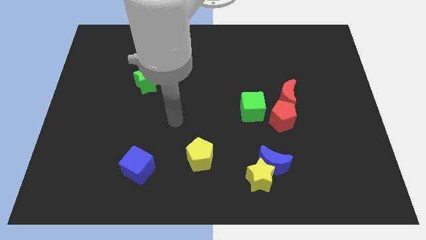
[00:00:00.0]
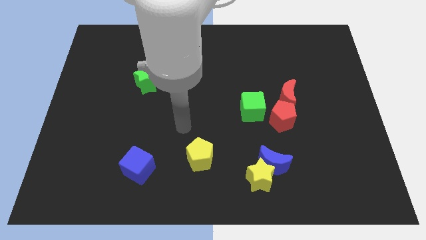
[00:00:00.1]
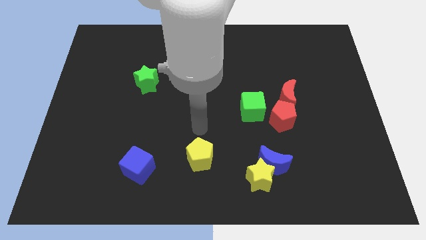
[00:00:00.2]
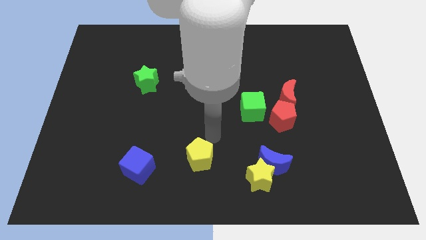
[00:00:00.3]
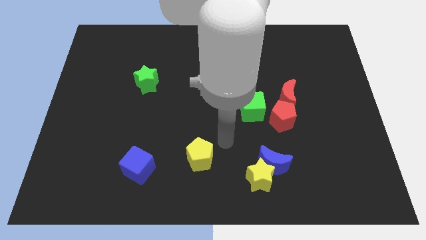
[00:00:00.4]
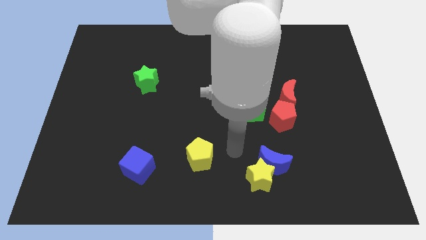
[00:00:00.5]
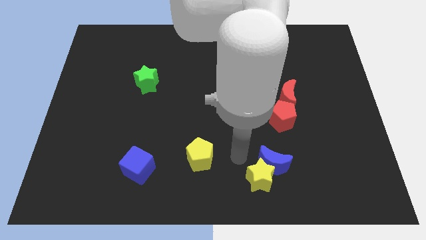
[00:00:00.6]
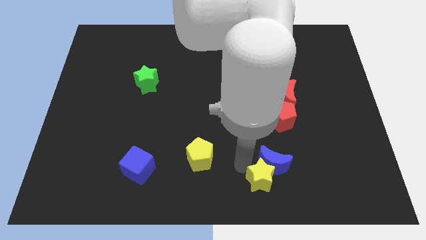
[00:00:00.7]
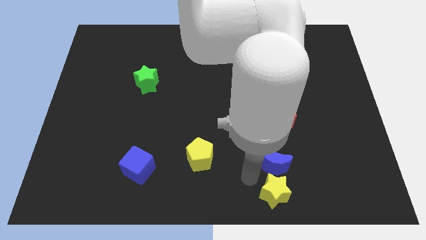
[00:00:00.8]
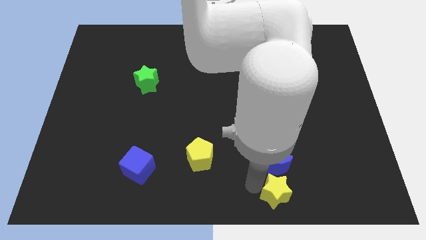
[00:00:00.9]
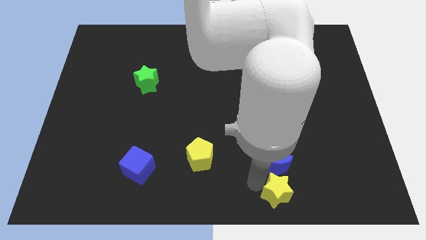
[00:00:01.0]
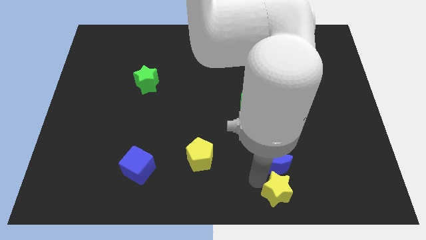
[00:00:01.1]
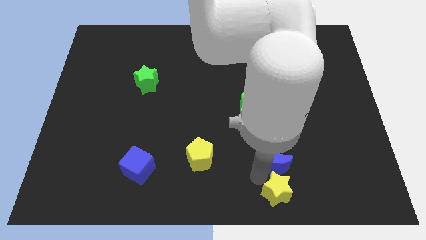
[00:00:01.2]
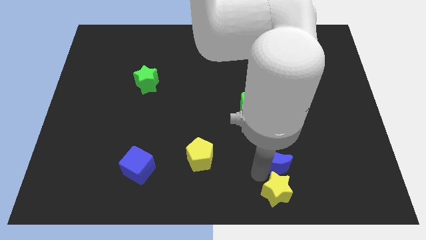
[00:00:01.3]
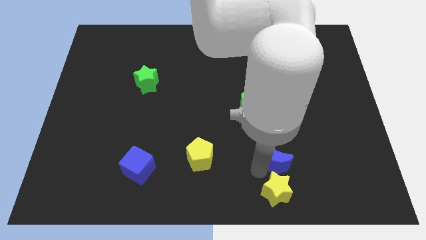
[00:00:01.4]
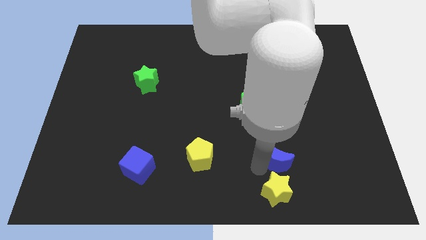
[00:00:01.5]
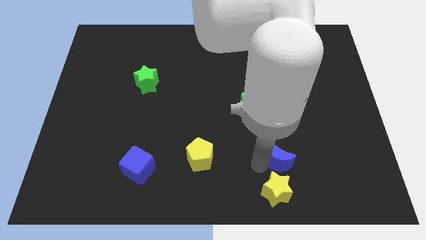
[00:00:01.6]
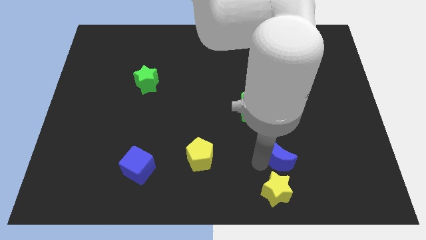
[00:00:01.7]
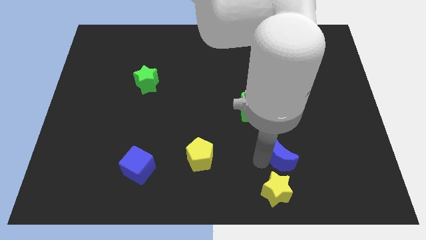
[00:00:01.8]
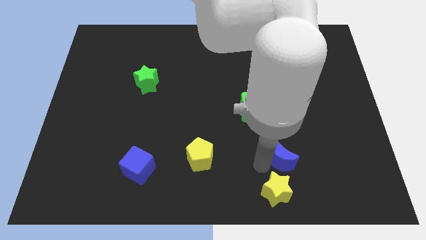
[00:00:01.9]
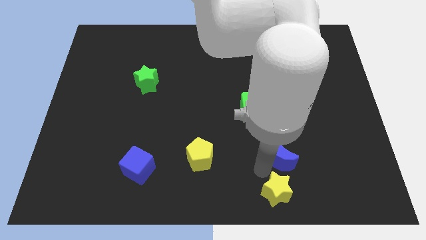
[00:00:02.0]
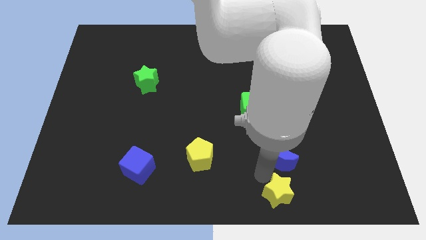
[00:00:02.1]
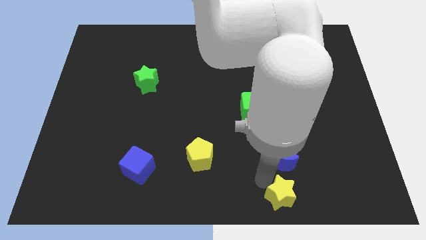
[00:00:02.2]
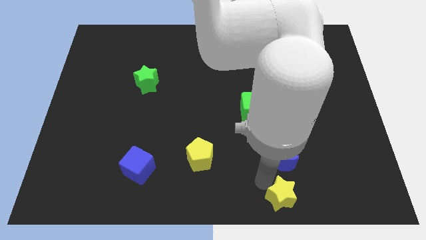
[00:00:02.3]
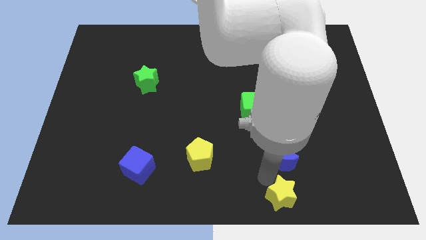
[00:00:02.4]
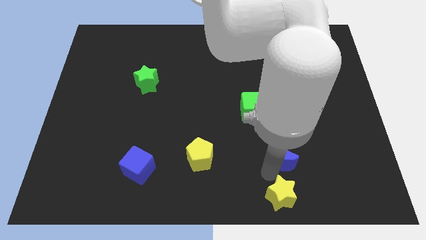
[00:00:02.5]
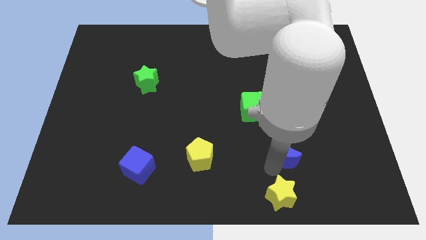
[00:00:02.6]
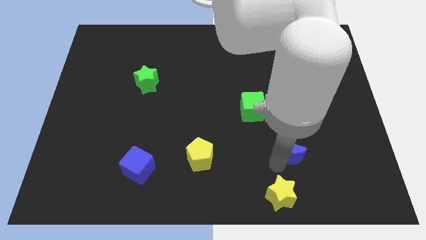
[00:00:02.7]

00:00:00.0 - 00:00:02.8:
move the blue moon away from the yellow star

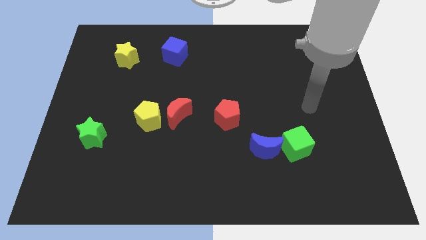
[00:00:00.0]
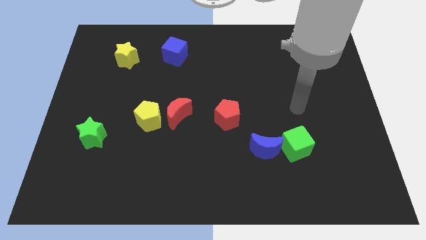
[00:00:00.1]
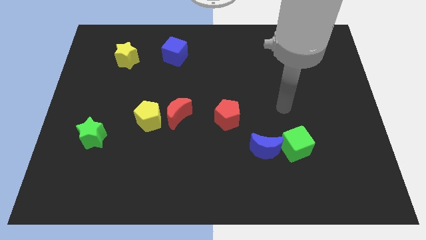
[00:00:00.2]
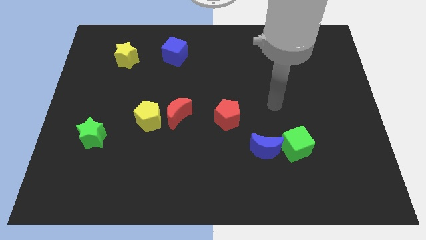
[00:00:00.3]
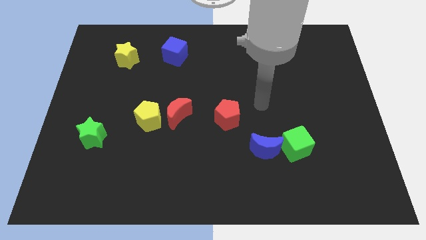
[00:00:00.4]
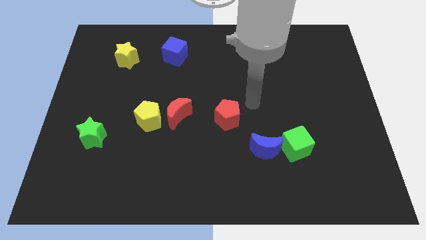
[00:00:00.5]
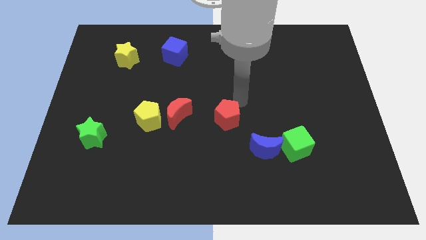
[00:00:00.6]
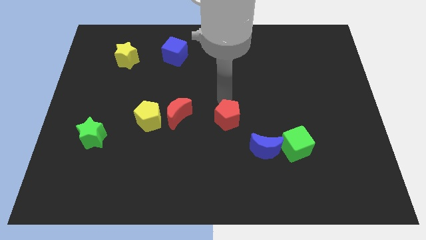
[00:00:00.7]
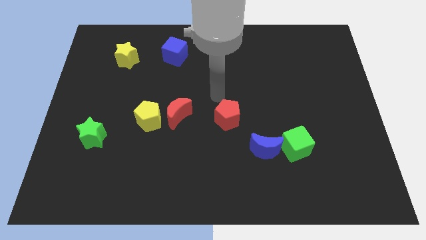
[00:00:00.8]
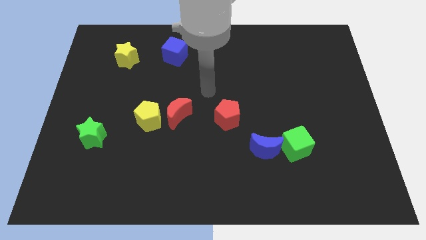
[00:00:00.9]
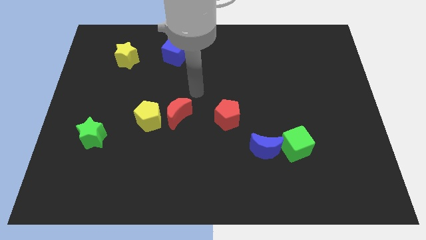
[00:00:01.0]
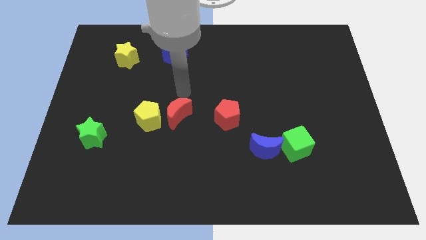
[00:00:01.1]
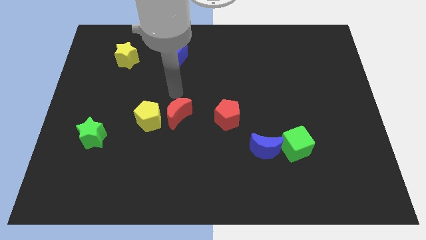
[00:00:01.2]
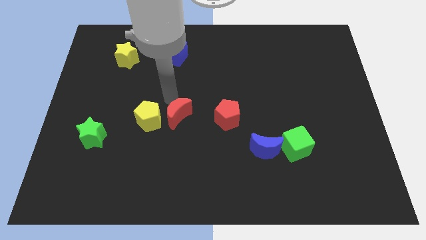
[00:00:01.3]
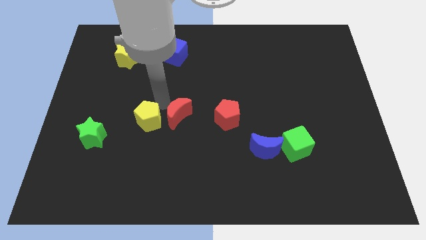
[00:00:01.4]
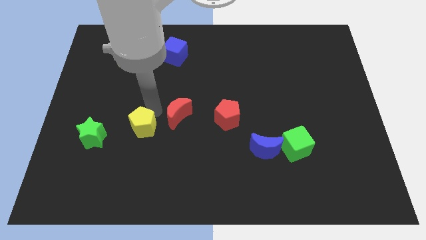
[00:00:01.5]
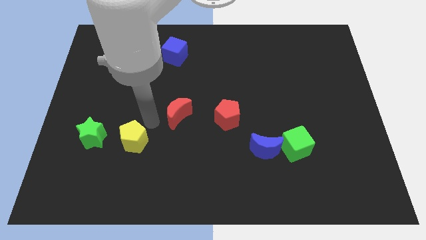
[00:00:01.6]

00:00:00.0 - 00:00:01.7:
move the red moon away from the yellow pentagon

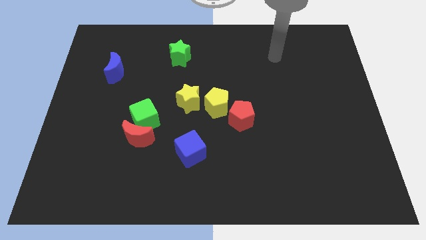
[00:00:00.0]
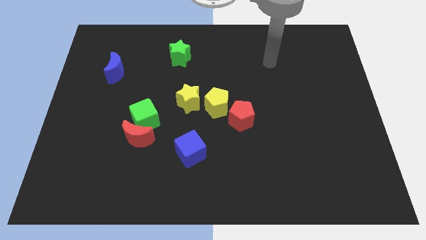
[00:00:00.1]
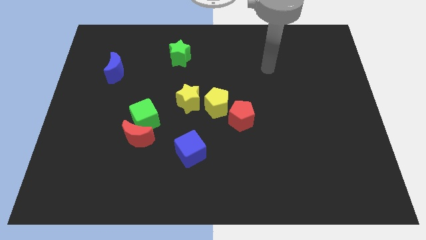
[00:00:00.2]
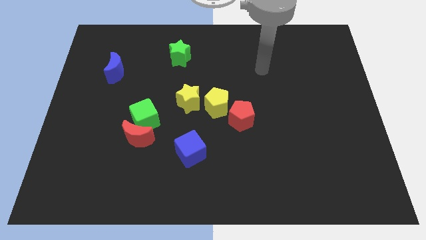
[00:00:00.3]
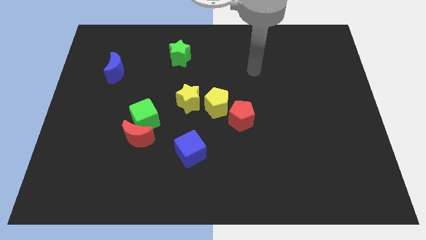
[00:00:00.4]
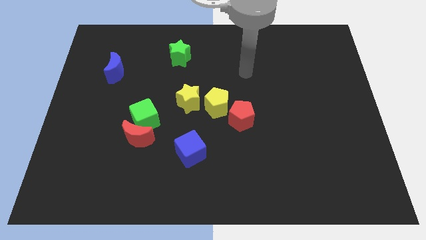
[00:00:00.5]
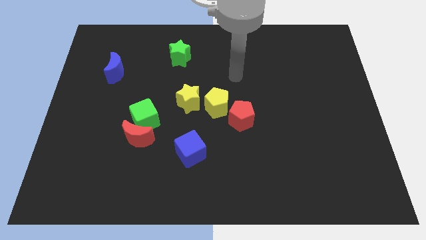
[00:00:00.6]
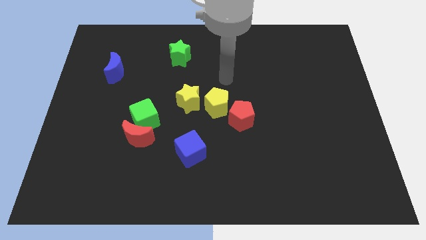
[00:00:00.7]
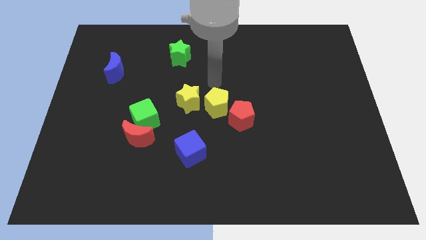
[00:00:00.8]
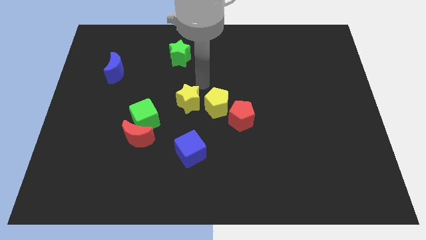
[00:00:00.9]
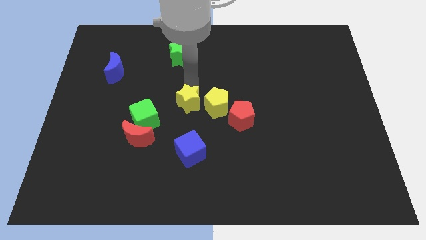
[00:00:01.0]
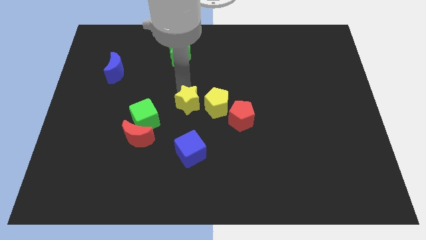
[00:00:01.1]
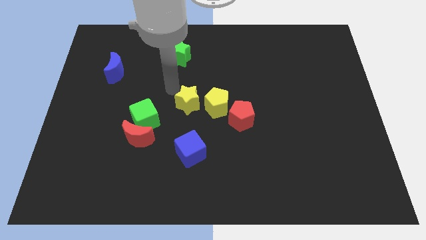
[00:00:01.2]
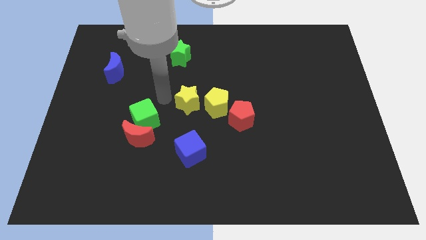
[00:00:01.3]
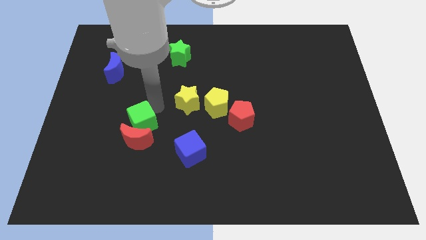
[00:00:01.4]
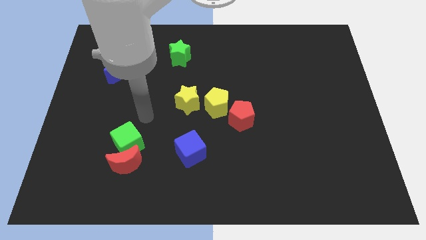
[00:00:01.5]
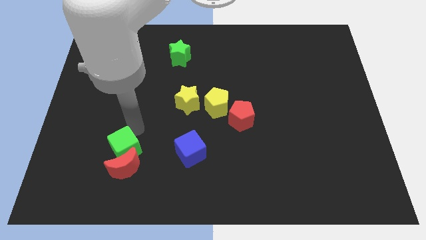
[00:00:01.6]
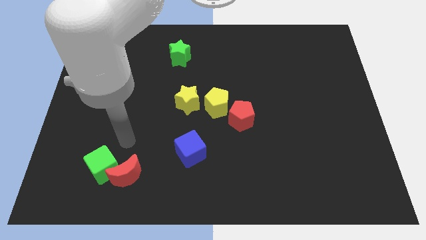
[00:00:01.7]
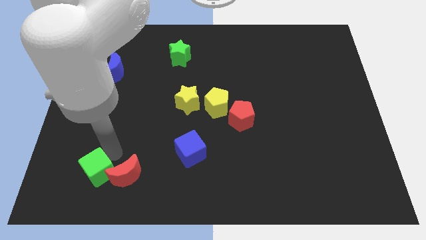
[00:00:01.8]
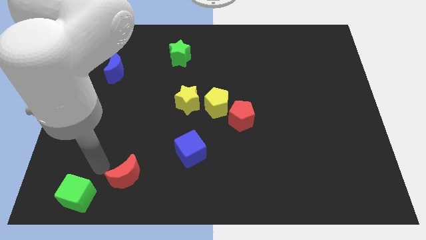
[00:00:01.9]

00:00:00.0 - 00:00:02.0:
pull the red moon apart from the green cube

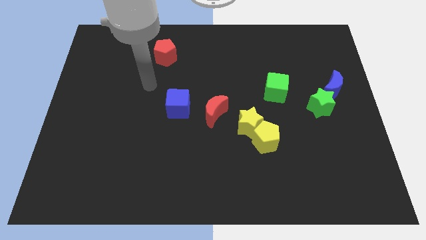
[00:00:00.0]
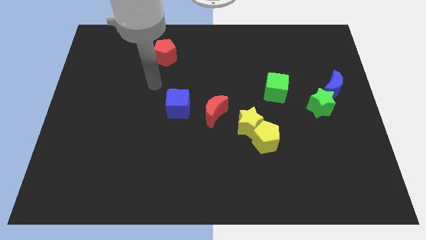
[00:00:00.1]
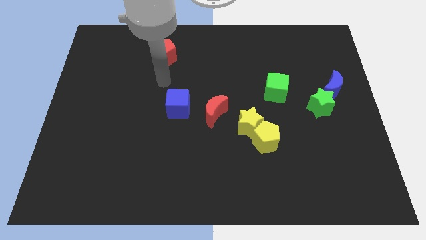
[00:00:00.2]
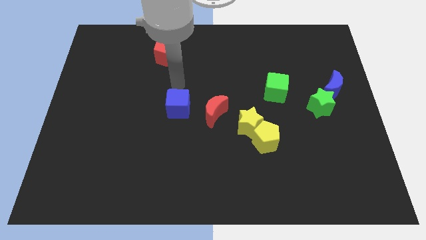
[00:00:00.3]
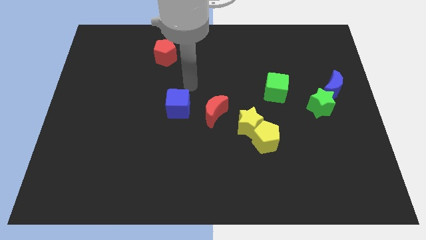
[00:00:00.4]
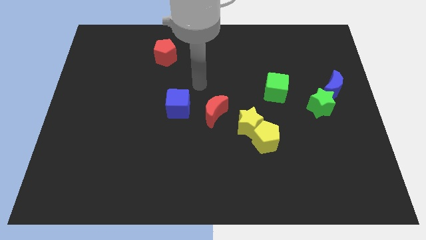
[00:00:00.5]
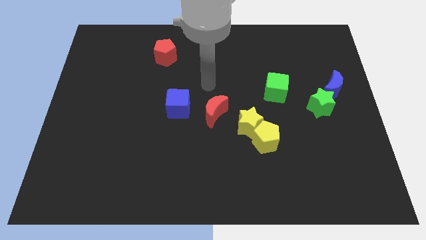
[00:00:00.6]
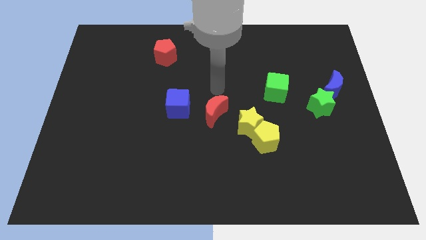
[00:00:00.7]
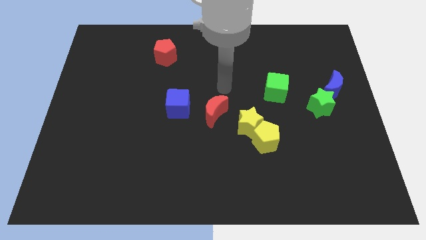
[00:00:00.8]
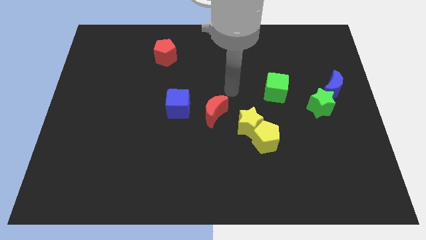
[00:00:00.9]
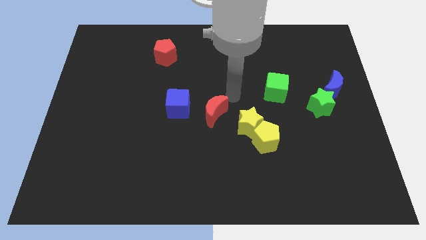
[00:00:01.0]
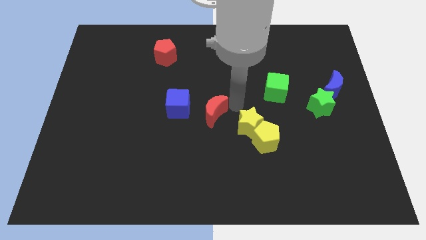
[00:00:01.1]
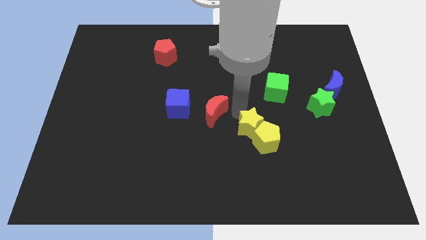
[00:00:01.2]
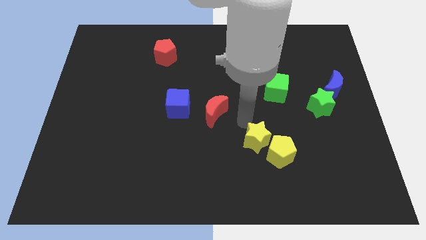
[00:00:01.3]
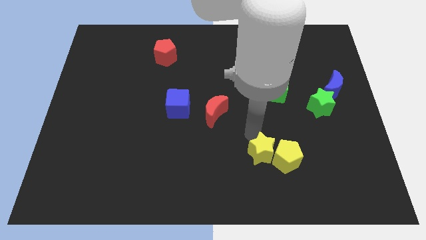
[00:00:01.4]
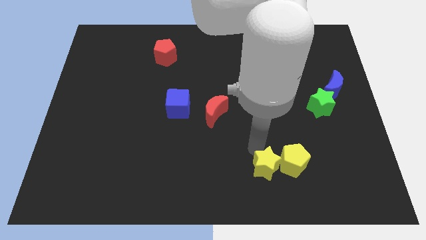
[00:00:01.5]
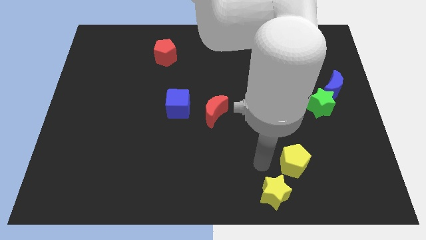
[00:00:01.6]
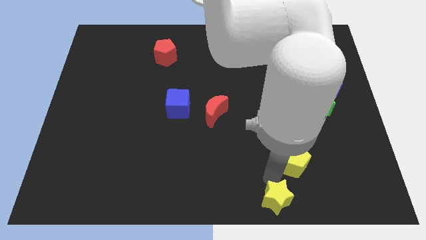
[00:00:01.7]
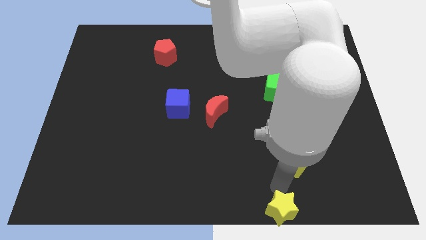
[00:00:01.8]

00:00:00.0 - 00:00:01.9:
separate the yellow pentagon from the yellow star

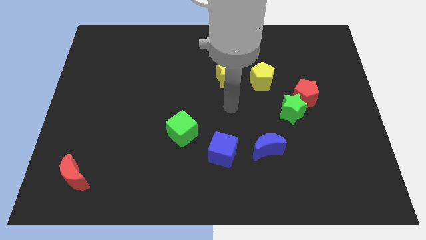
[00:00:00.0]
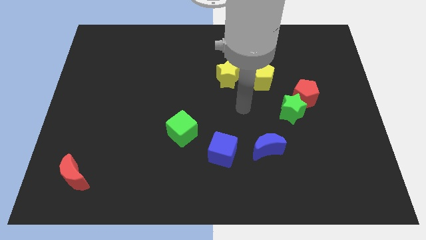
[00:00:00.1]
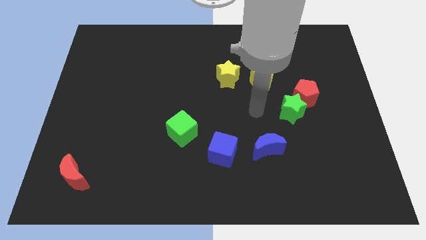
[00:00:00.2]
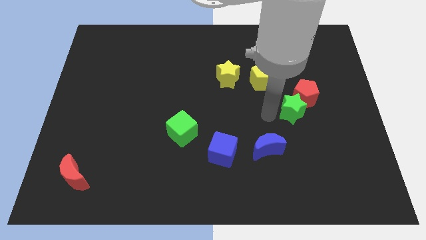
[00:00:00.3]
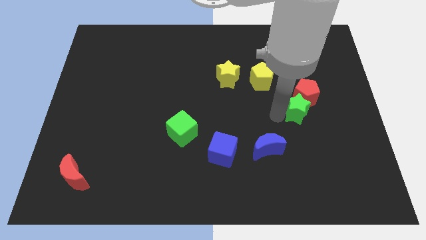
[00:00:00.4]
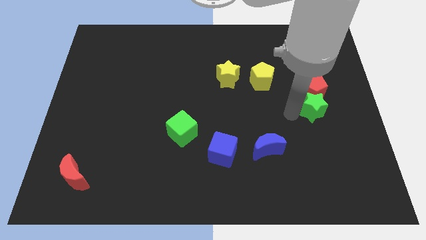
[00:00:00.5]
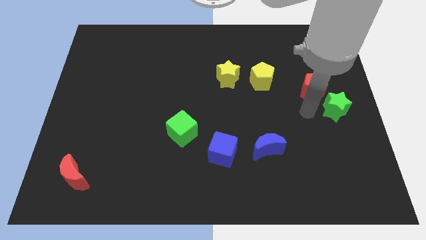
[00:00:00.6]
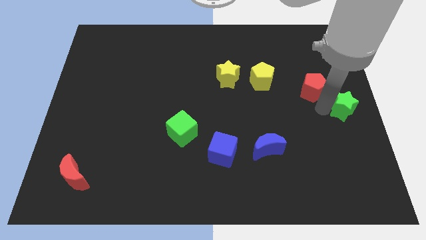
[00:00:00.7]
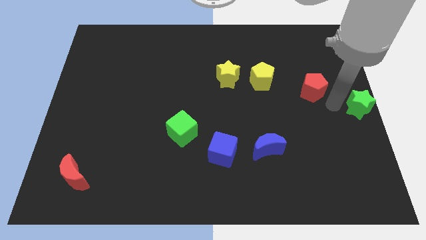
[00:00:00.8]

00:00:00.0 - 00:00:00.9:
separate the red pentagon from the green star
